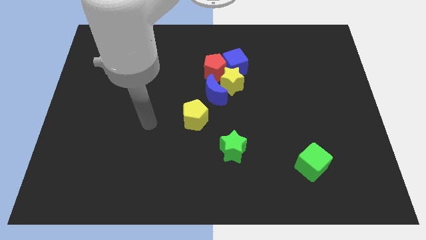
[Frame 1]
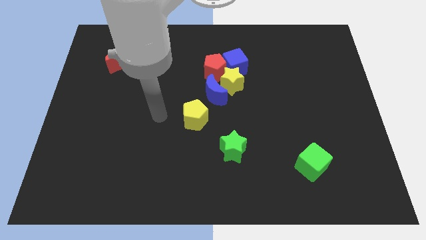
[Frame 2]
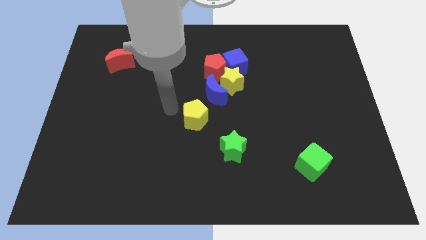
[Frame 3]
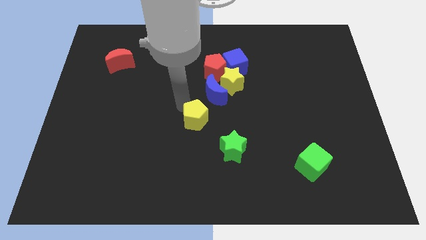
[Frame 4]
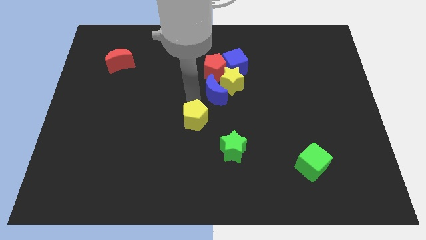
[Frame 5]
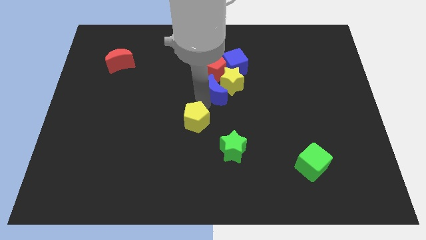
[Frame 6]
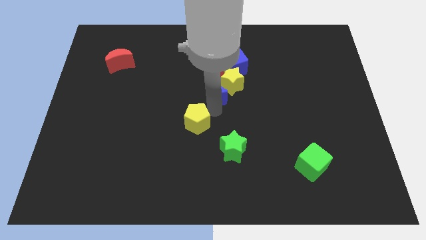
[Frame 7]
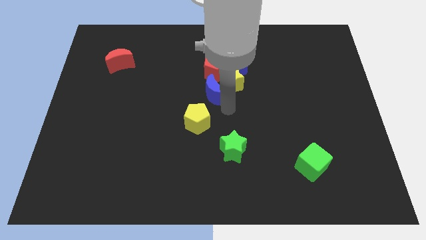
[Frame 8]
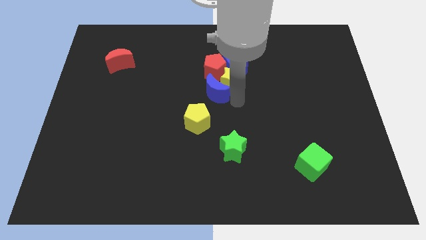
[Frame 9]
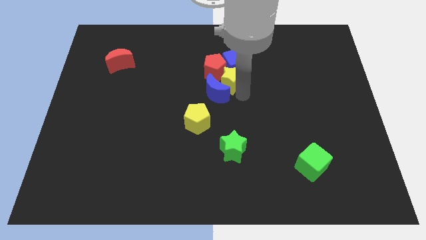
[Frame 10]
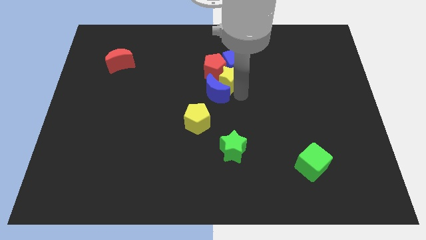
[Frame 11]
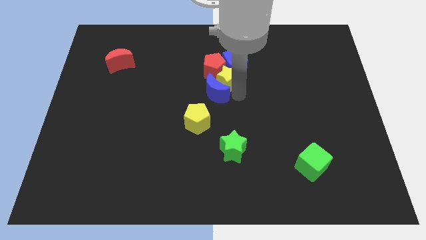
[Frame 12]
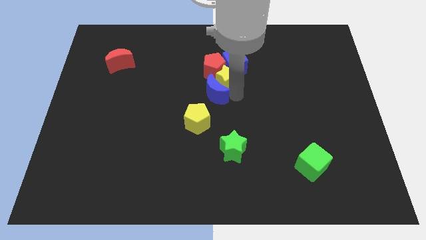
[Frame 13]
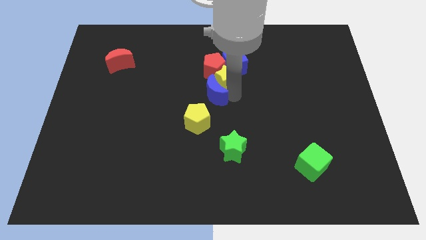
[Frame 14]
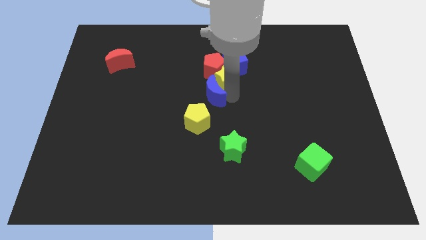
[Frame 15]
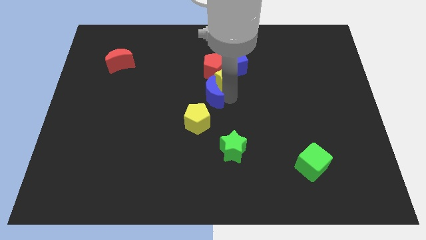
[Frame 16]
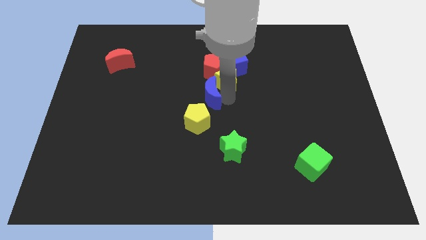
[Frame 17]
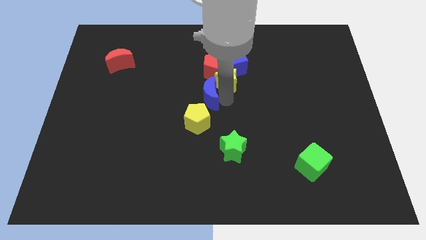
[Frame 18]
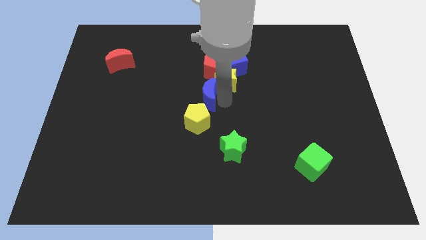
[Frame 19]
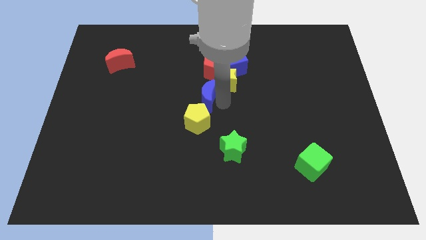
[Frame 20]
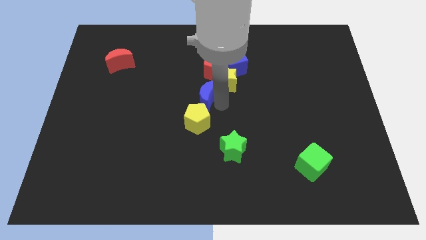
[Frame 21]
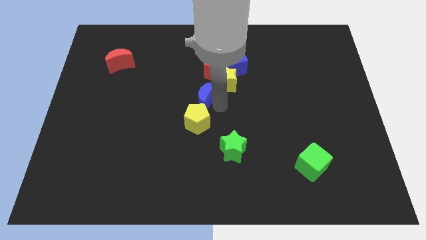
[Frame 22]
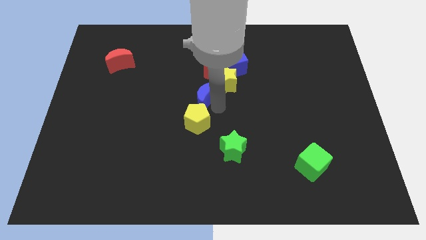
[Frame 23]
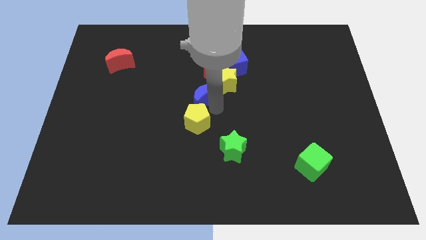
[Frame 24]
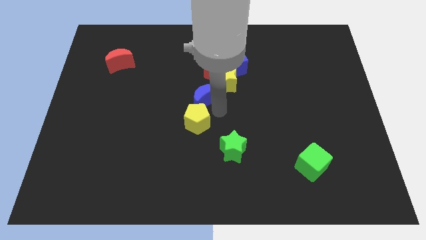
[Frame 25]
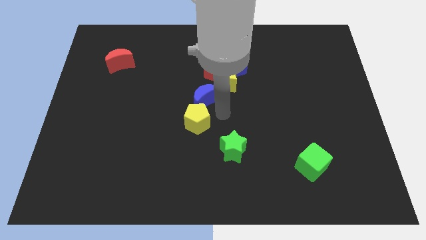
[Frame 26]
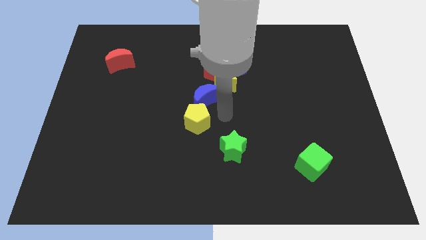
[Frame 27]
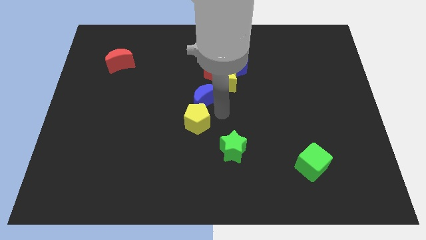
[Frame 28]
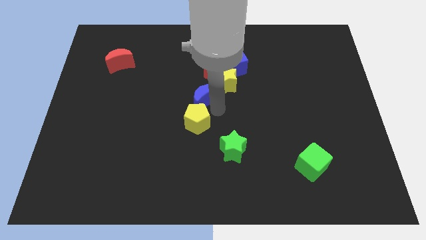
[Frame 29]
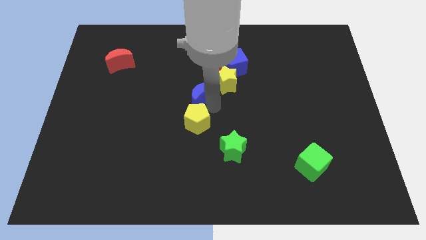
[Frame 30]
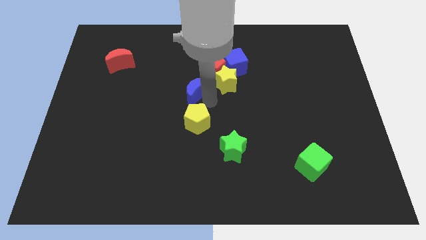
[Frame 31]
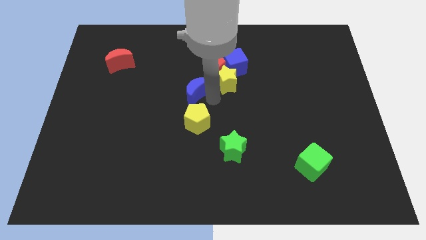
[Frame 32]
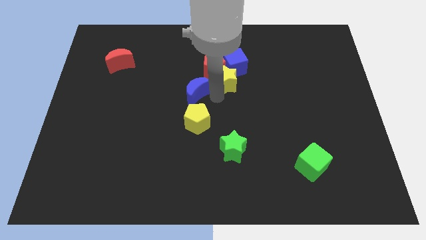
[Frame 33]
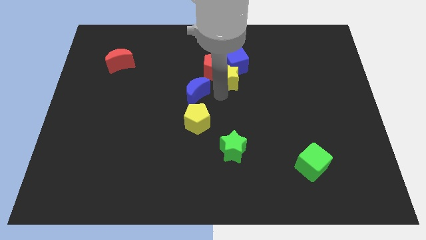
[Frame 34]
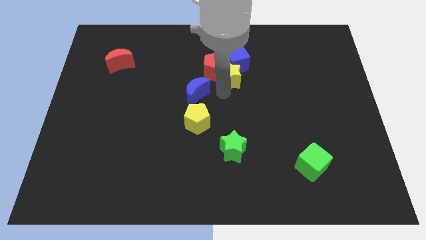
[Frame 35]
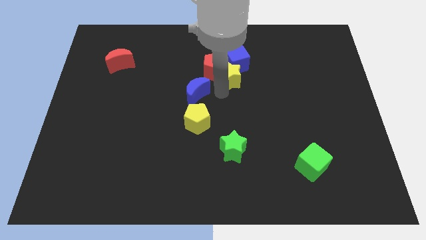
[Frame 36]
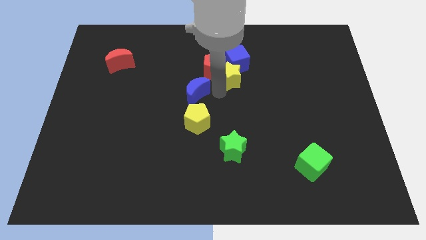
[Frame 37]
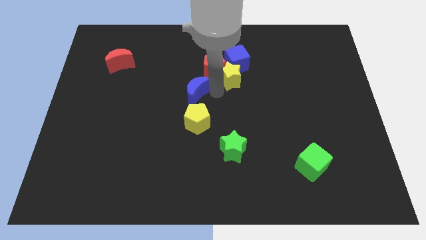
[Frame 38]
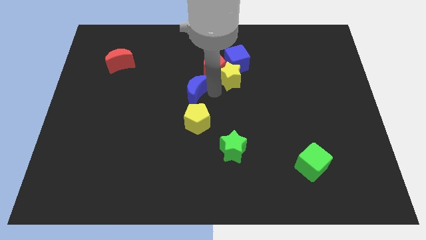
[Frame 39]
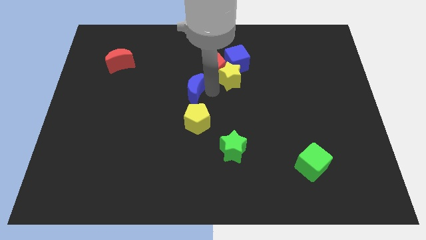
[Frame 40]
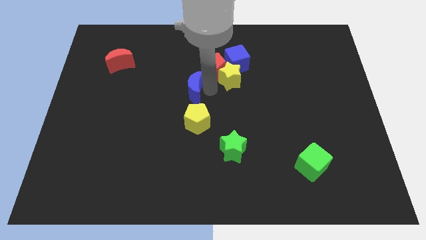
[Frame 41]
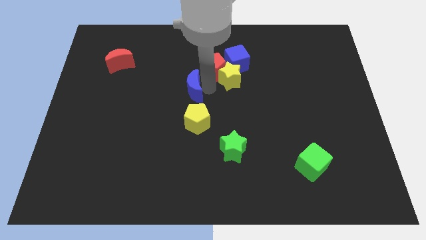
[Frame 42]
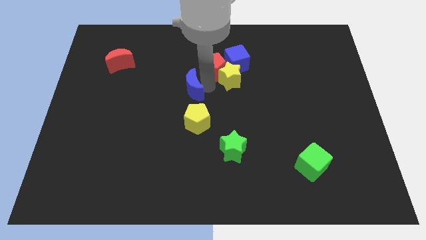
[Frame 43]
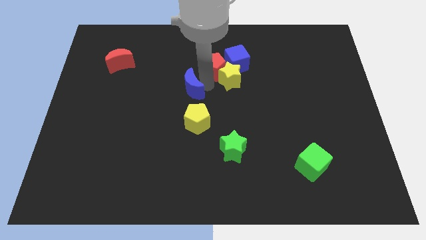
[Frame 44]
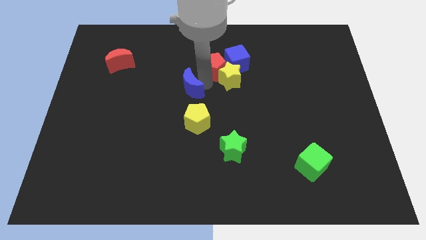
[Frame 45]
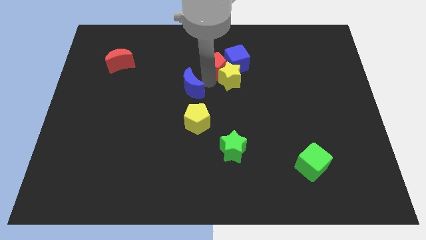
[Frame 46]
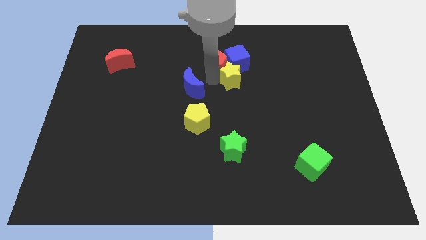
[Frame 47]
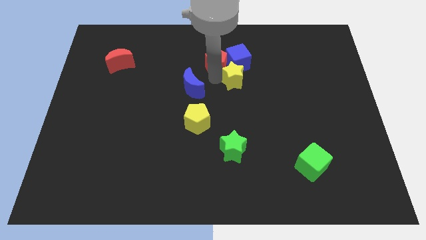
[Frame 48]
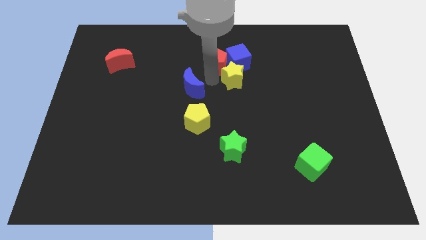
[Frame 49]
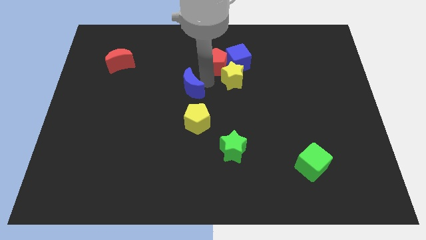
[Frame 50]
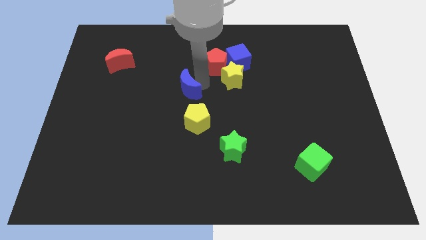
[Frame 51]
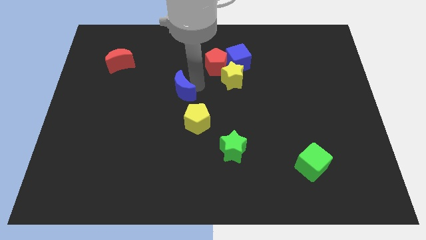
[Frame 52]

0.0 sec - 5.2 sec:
push the blue moon a bit to the left

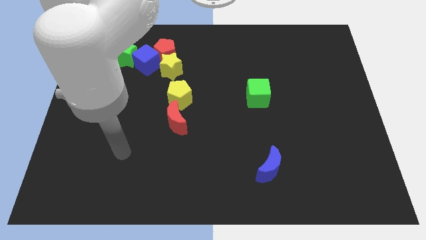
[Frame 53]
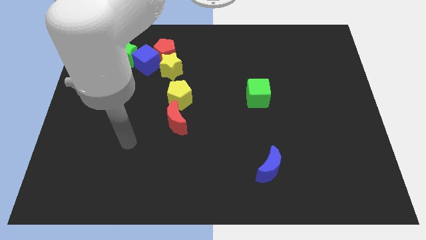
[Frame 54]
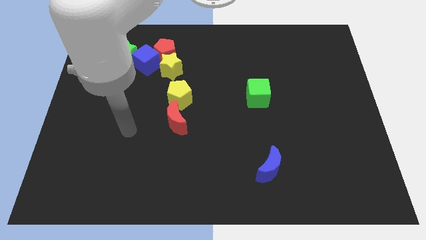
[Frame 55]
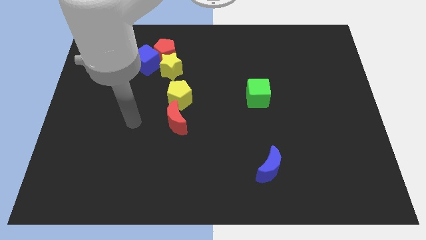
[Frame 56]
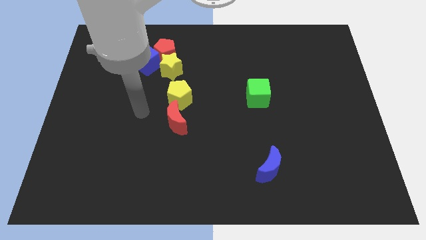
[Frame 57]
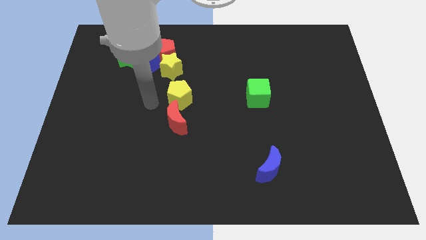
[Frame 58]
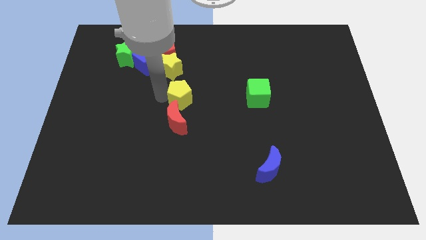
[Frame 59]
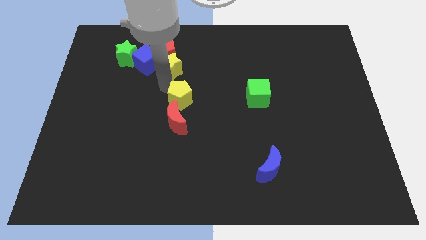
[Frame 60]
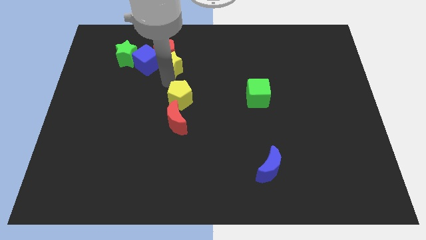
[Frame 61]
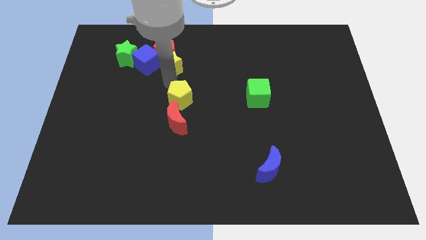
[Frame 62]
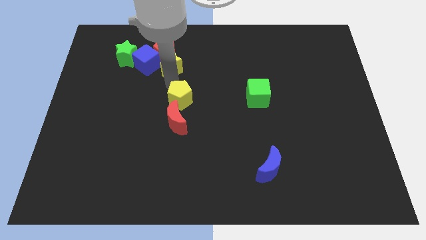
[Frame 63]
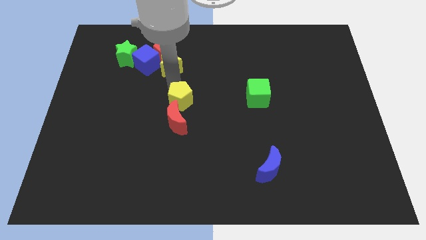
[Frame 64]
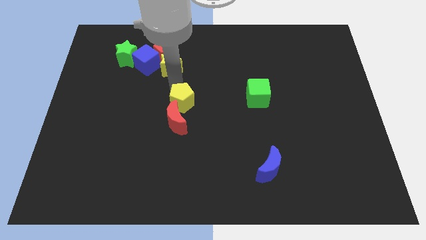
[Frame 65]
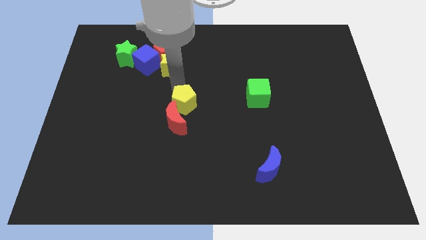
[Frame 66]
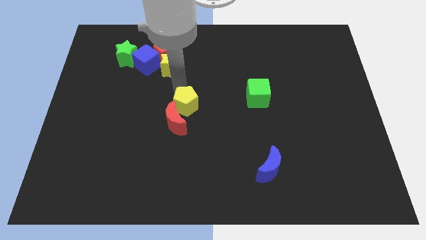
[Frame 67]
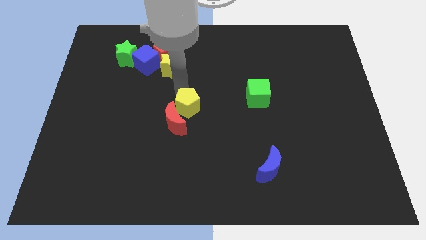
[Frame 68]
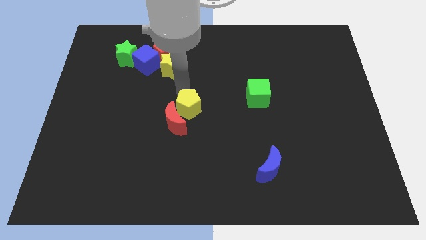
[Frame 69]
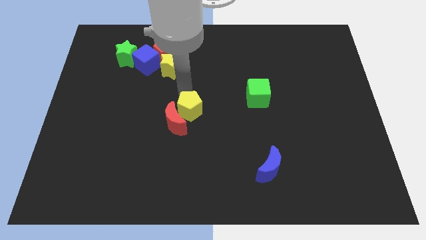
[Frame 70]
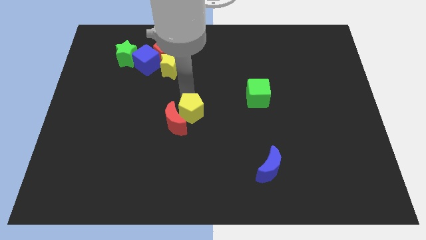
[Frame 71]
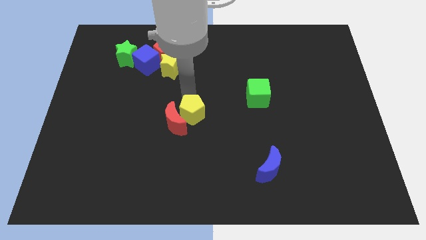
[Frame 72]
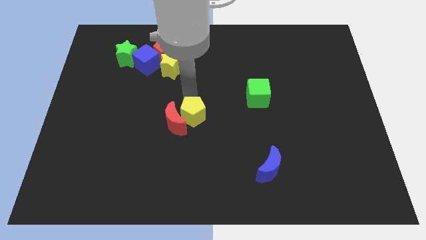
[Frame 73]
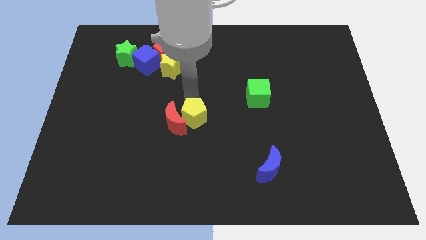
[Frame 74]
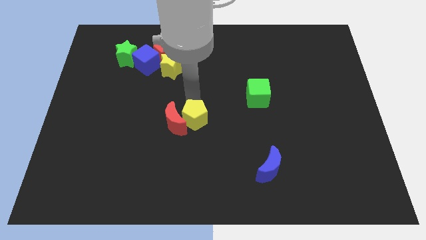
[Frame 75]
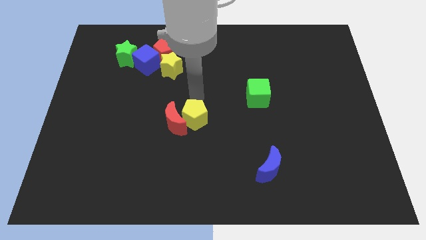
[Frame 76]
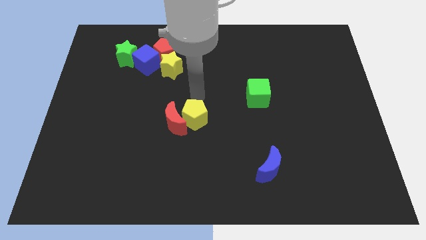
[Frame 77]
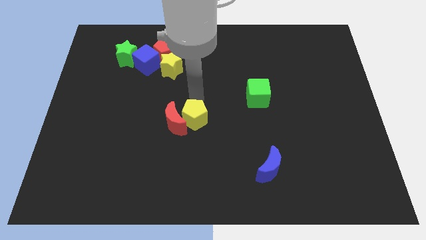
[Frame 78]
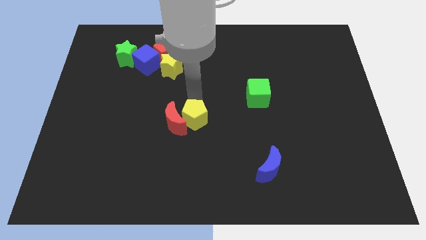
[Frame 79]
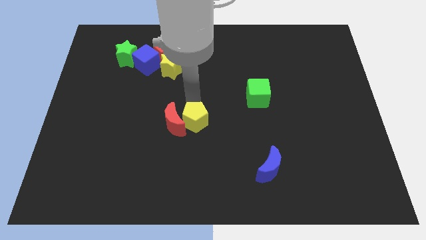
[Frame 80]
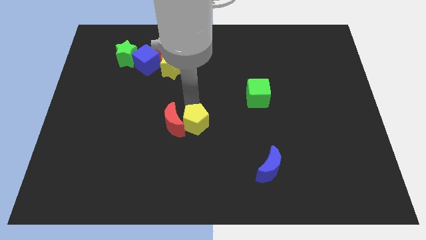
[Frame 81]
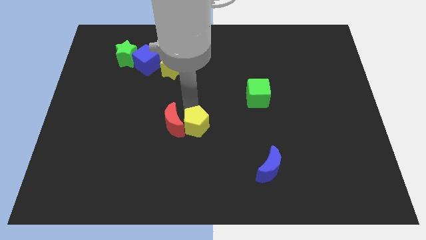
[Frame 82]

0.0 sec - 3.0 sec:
slide the yellow pentagon downwards slightly
